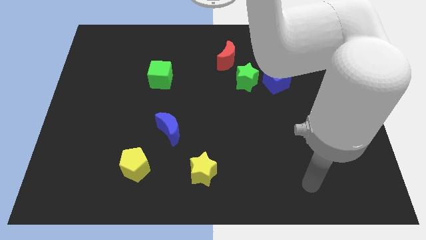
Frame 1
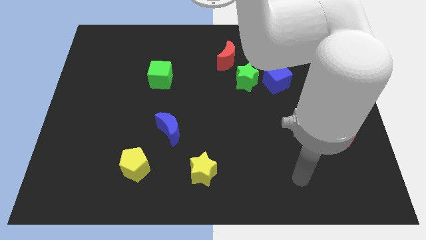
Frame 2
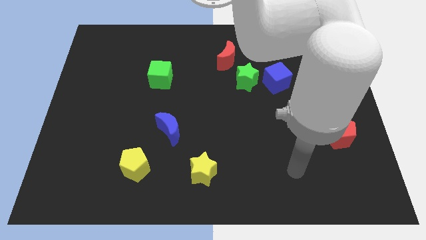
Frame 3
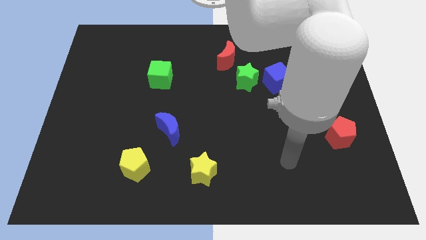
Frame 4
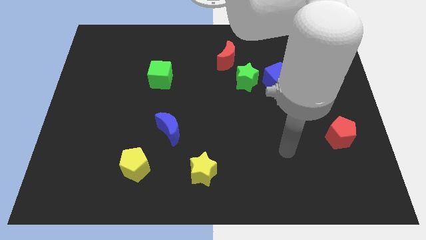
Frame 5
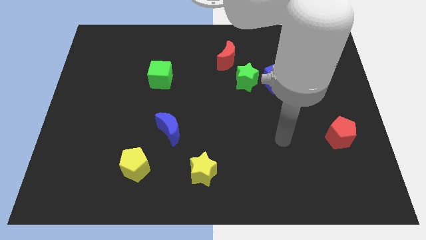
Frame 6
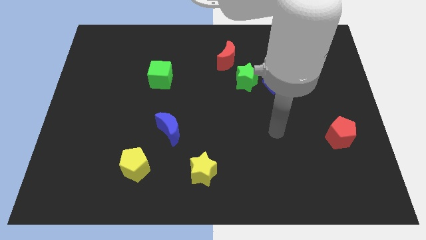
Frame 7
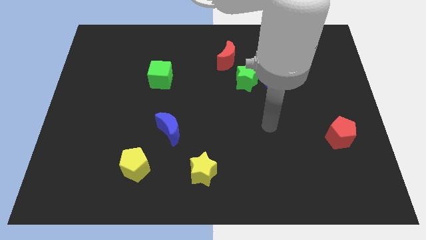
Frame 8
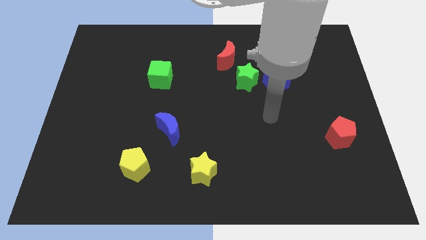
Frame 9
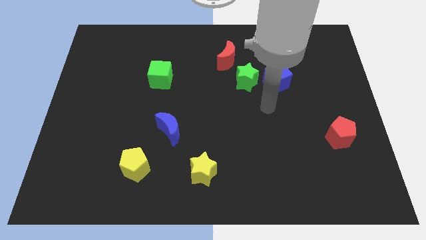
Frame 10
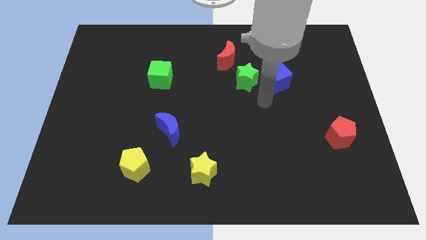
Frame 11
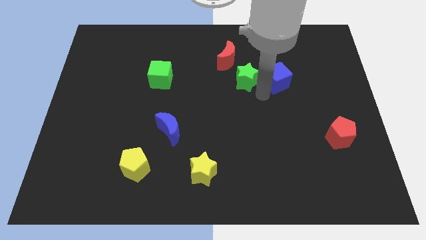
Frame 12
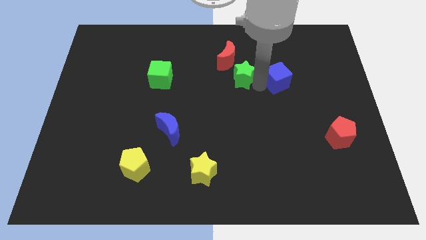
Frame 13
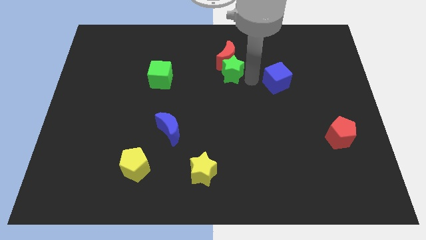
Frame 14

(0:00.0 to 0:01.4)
pull the blue cube apart from the green star

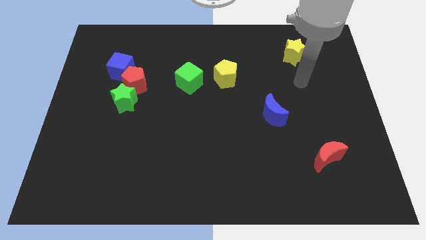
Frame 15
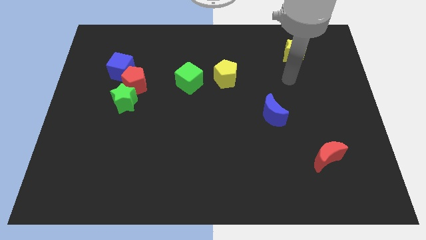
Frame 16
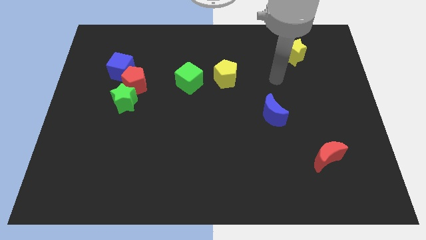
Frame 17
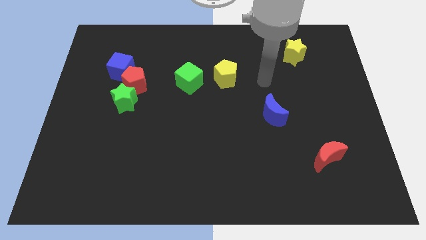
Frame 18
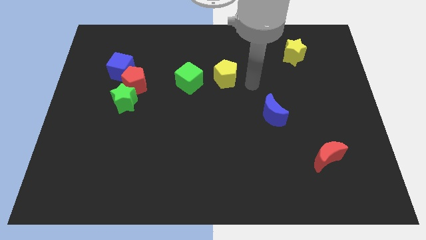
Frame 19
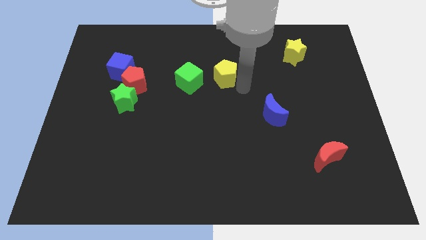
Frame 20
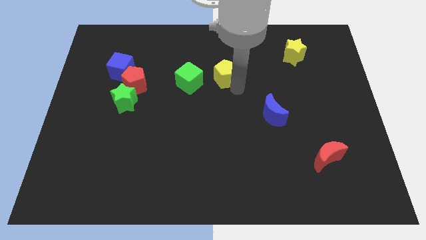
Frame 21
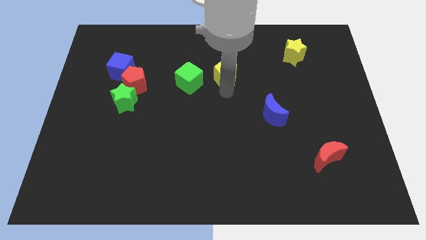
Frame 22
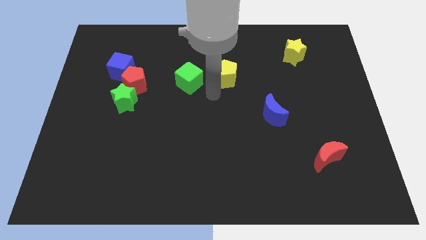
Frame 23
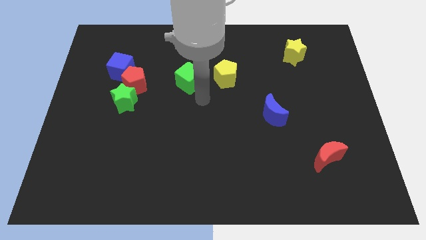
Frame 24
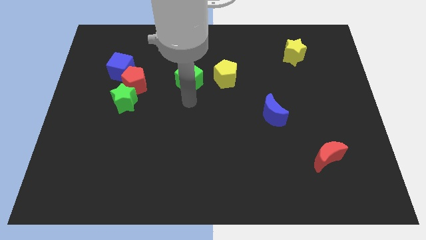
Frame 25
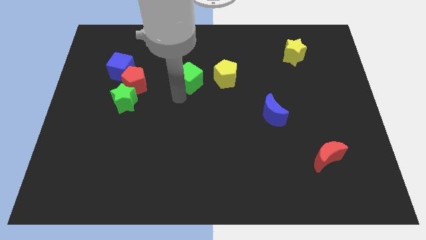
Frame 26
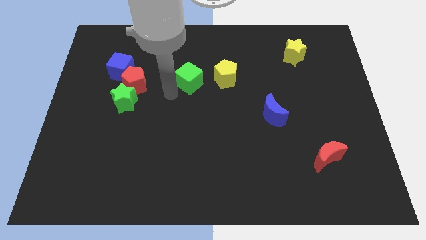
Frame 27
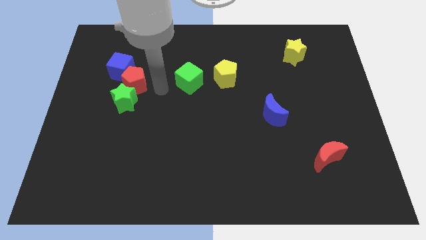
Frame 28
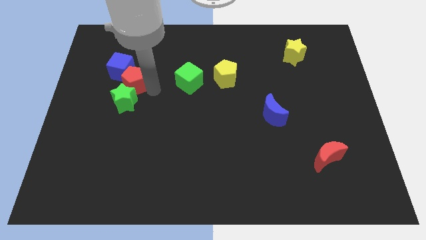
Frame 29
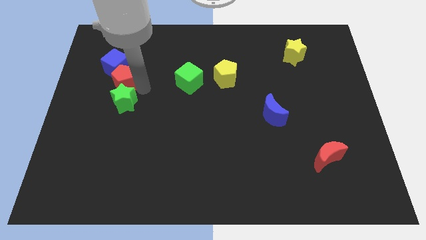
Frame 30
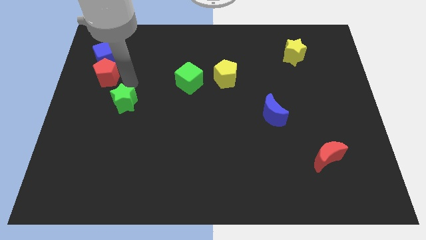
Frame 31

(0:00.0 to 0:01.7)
separate the green star from the red pentagon

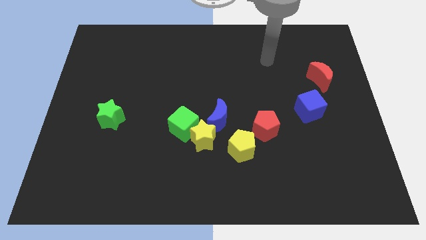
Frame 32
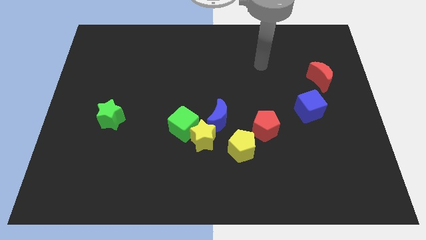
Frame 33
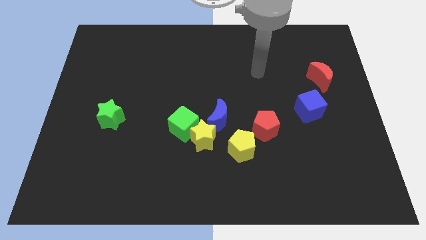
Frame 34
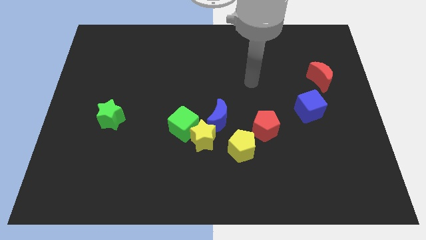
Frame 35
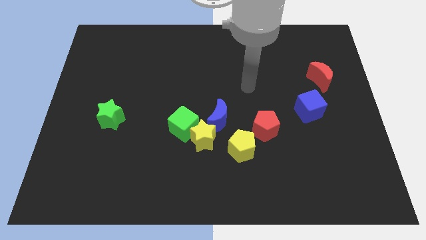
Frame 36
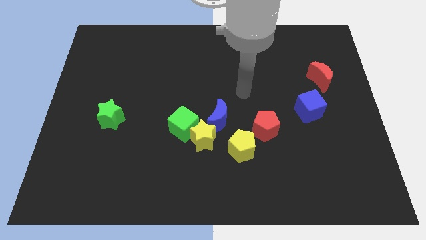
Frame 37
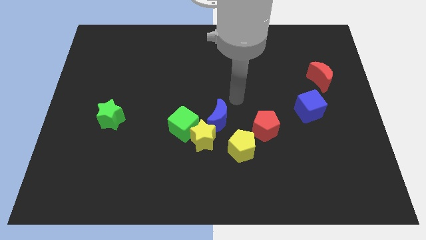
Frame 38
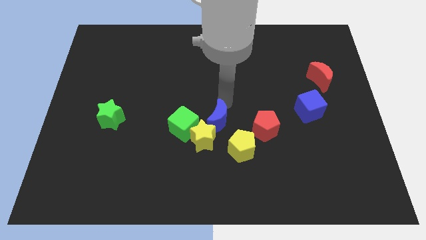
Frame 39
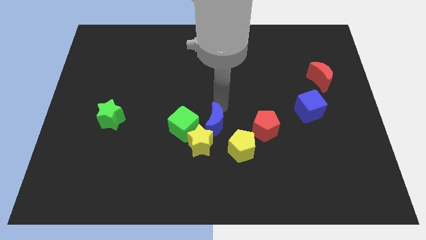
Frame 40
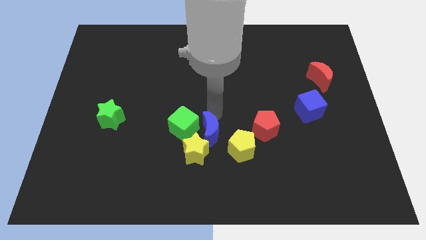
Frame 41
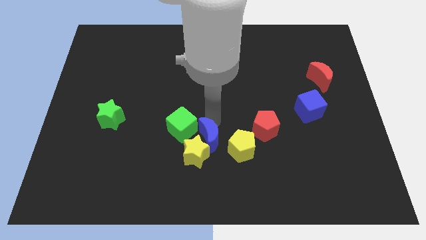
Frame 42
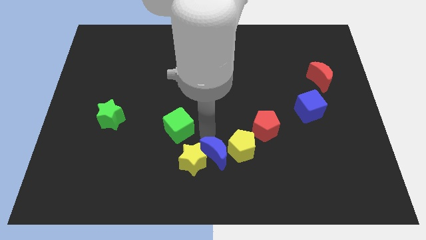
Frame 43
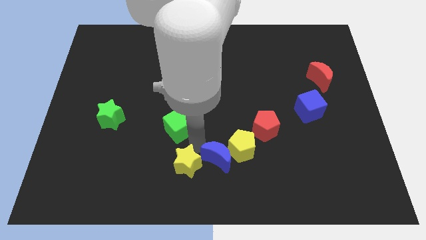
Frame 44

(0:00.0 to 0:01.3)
pull the green cube apart from the yellow star and blue moon

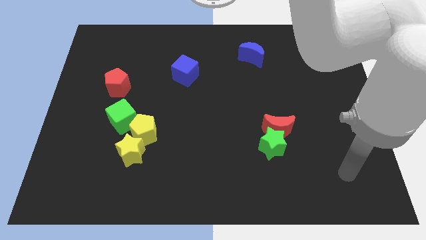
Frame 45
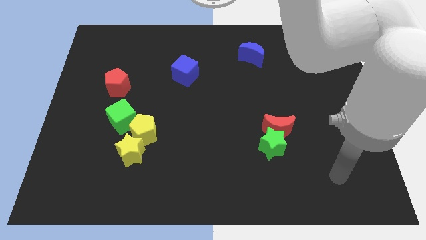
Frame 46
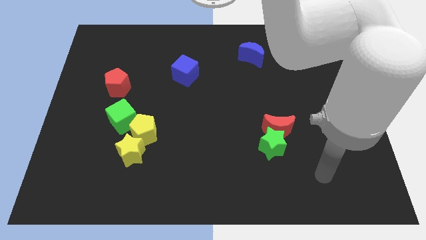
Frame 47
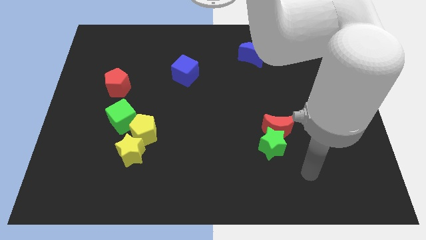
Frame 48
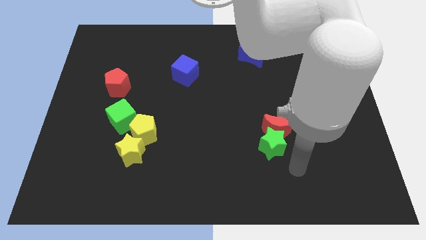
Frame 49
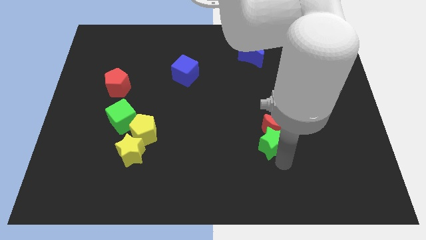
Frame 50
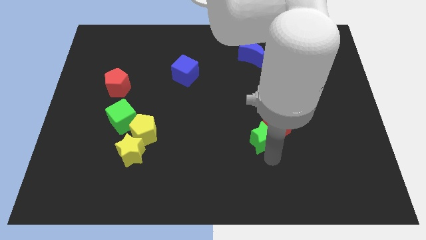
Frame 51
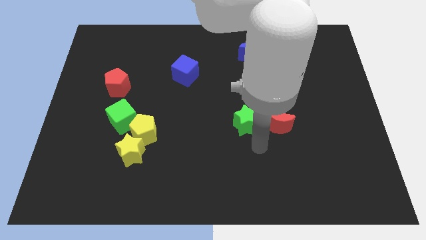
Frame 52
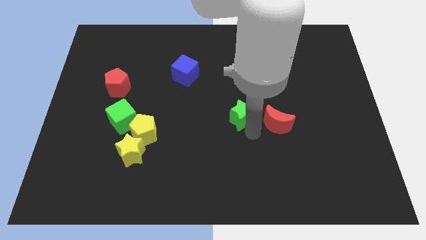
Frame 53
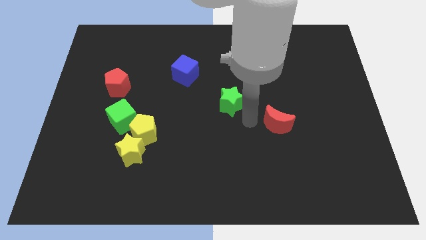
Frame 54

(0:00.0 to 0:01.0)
separate the red moon from the green star

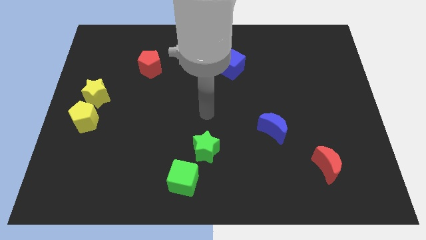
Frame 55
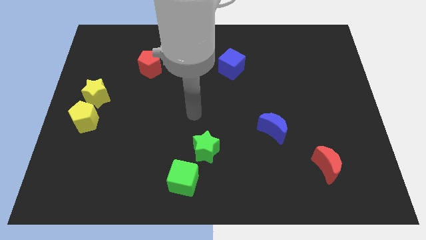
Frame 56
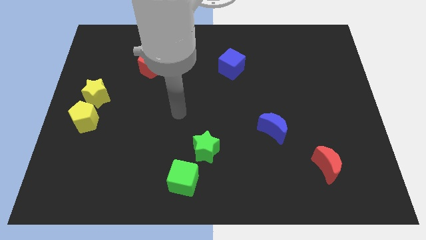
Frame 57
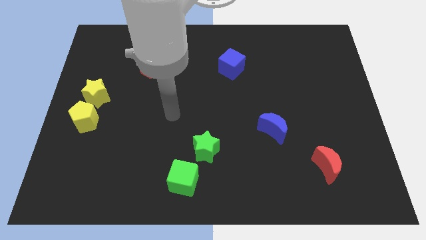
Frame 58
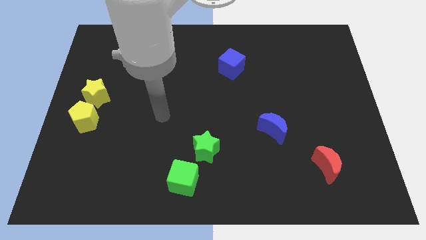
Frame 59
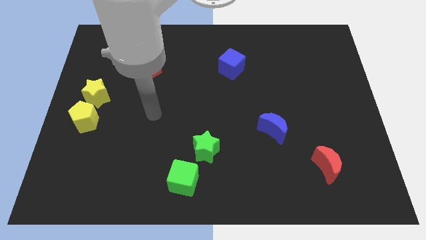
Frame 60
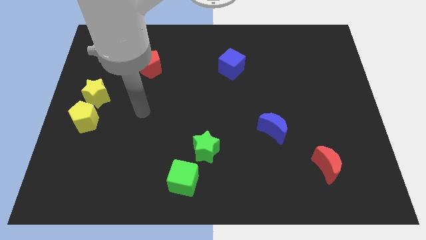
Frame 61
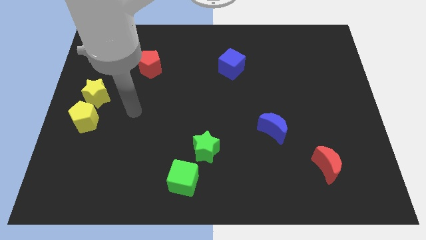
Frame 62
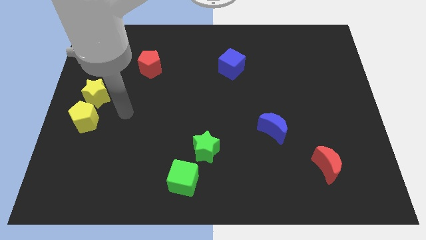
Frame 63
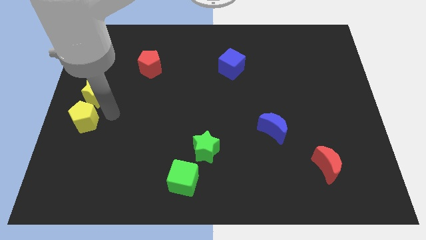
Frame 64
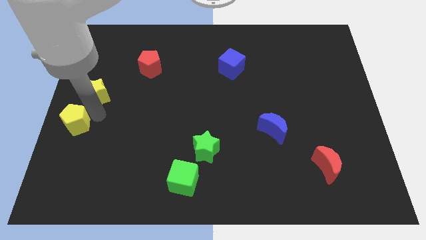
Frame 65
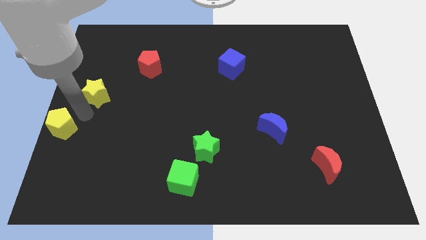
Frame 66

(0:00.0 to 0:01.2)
move the yellow star away from the yellow pentagon

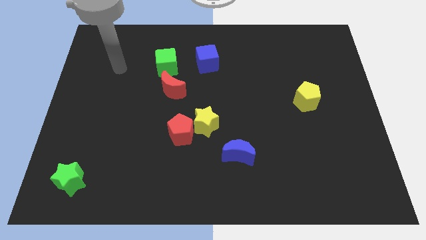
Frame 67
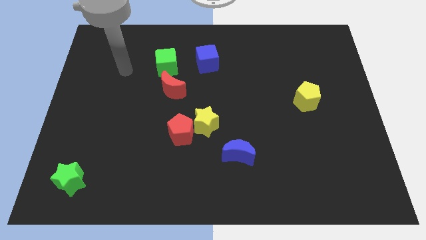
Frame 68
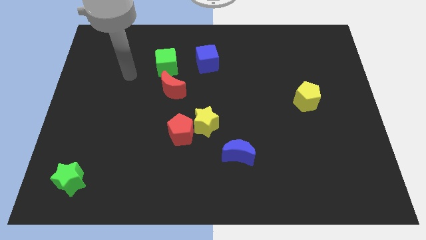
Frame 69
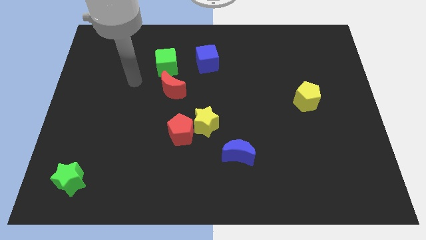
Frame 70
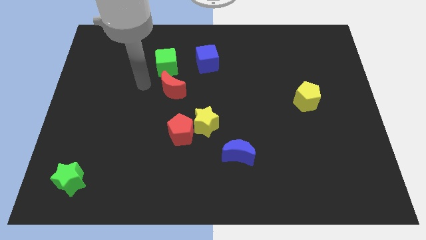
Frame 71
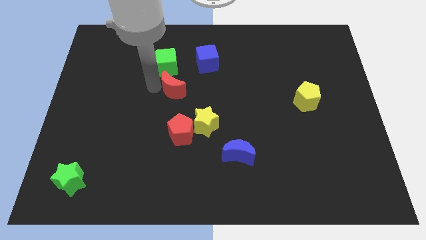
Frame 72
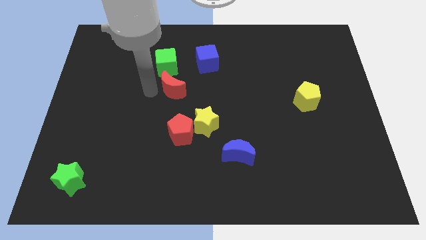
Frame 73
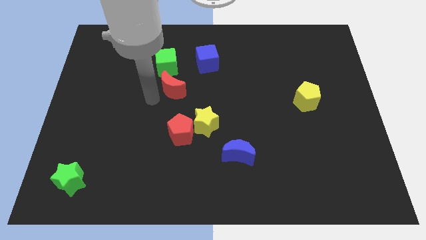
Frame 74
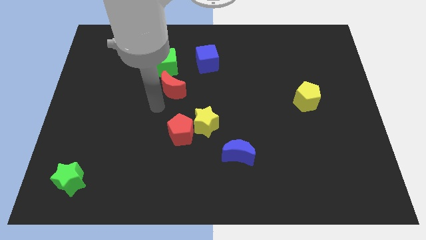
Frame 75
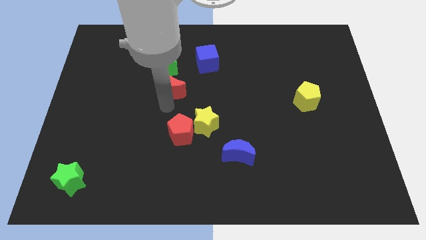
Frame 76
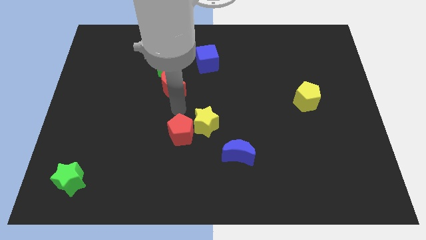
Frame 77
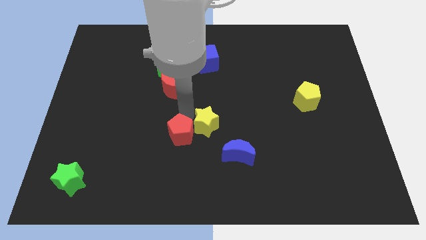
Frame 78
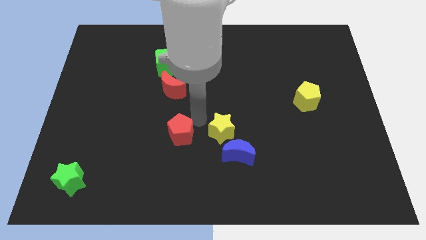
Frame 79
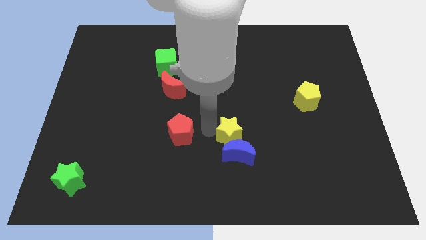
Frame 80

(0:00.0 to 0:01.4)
separate the red pentagon from the yellow star
